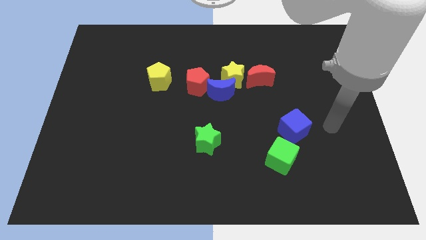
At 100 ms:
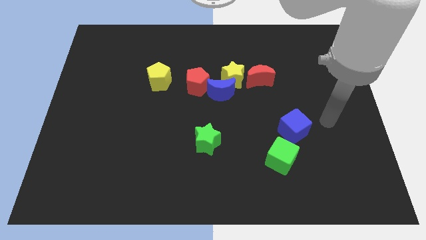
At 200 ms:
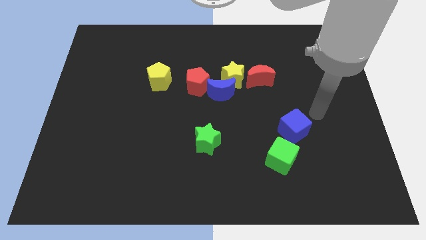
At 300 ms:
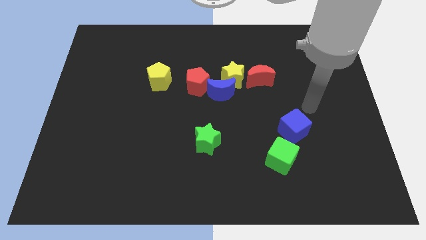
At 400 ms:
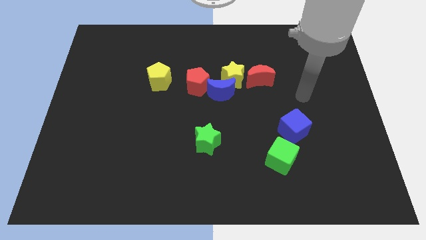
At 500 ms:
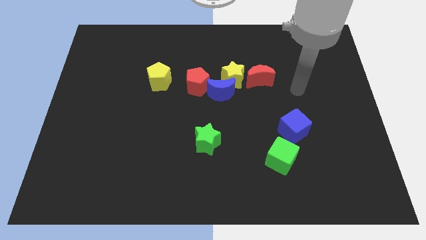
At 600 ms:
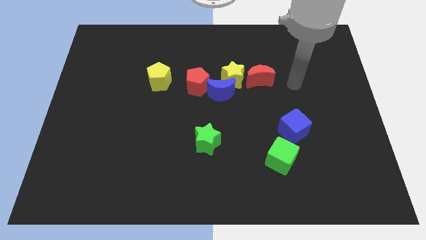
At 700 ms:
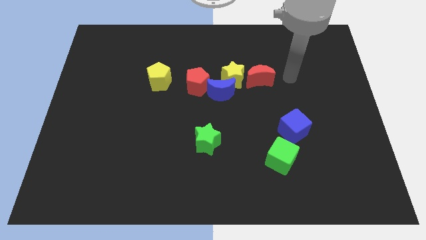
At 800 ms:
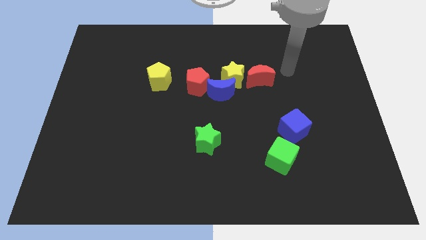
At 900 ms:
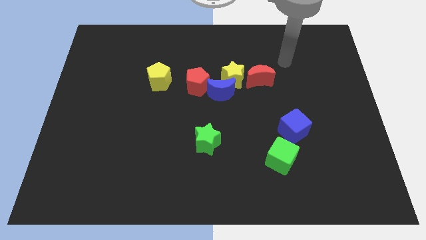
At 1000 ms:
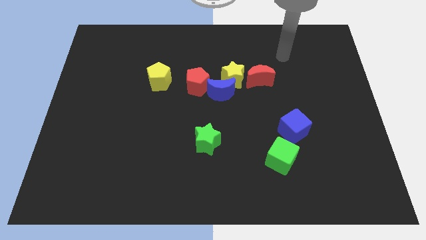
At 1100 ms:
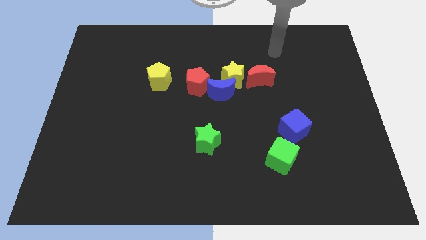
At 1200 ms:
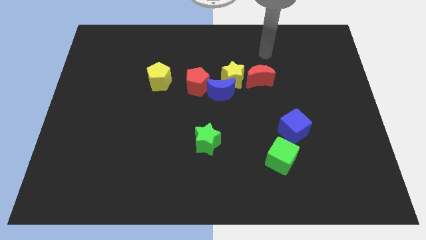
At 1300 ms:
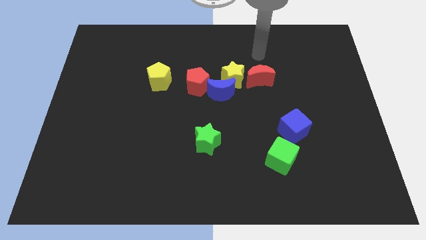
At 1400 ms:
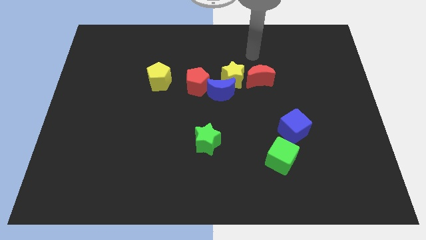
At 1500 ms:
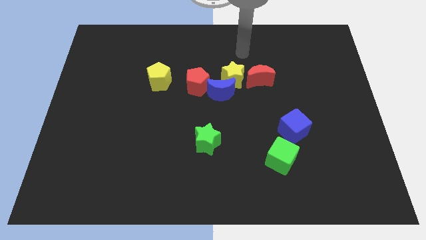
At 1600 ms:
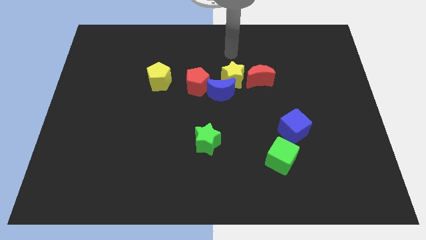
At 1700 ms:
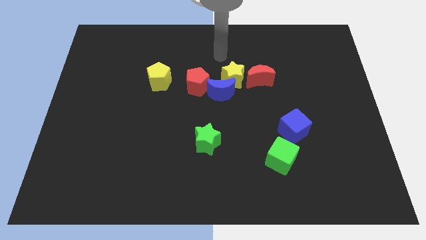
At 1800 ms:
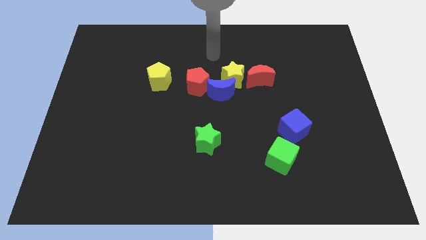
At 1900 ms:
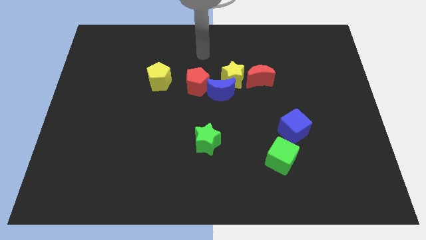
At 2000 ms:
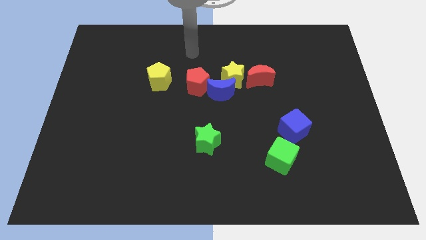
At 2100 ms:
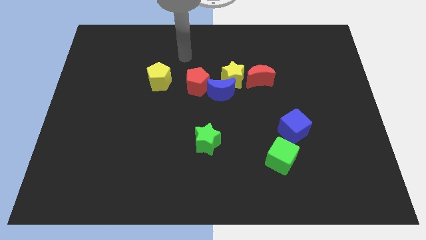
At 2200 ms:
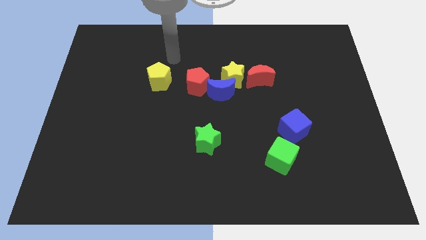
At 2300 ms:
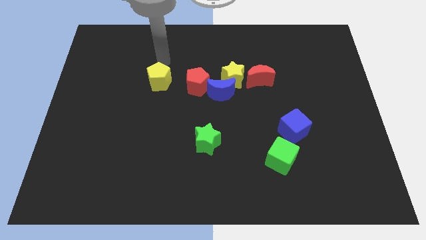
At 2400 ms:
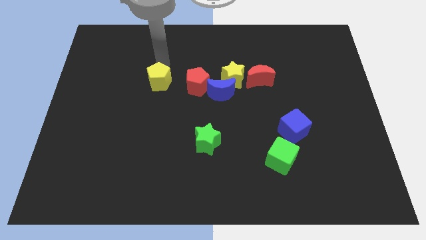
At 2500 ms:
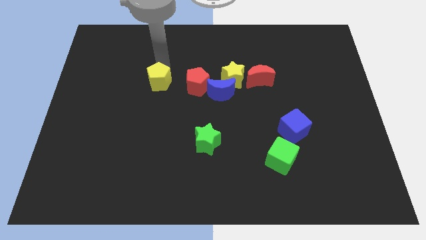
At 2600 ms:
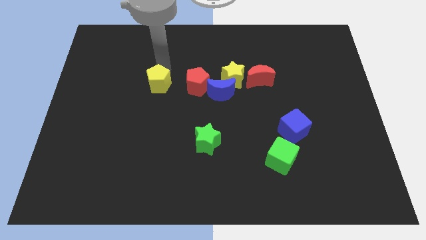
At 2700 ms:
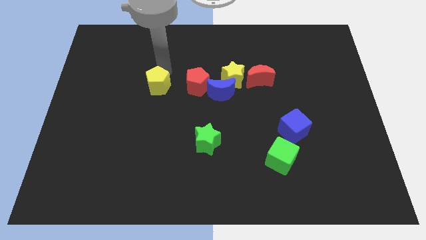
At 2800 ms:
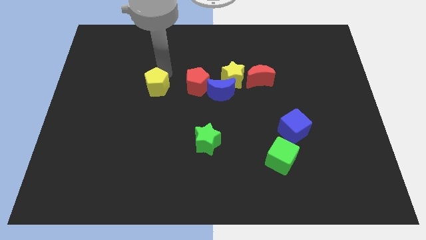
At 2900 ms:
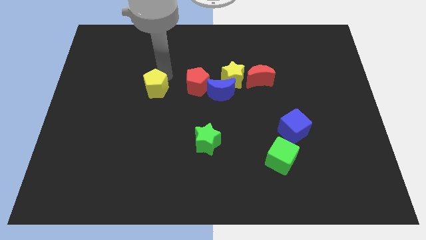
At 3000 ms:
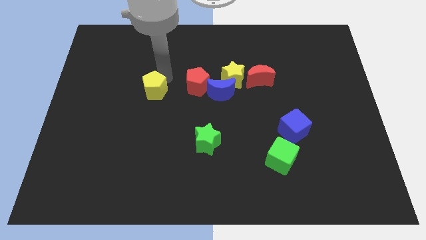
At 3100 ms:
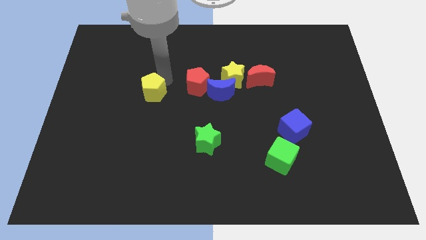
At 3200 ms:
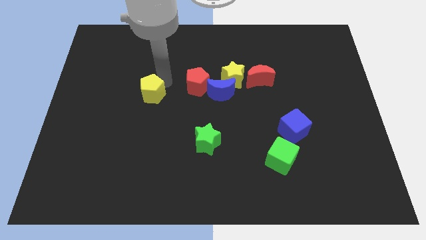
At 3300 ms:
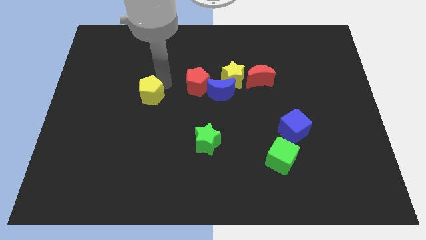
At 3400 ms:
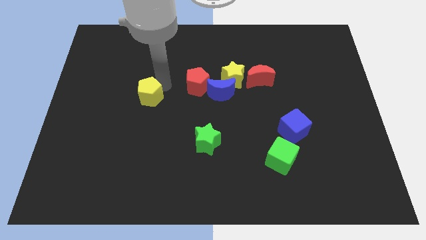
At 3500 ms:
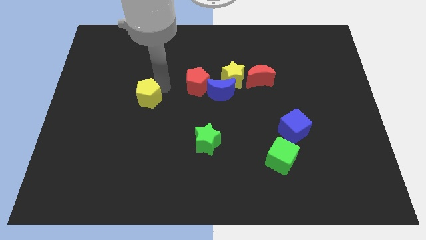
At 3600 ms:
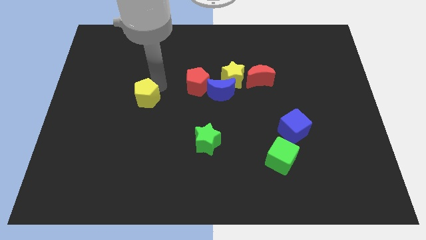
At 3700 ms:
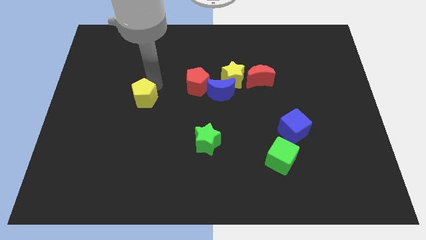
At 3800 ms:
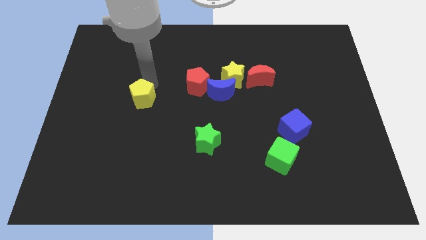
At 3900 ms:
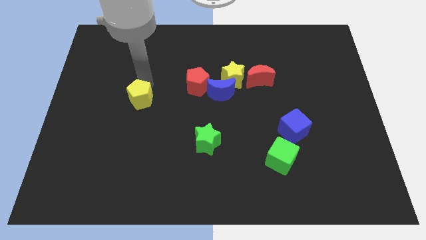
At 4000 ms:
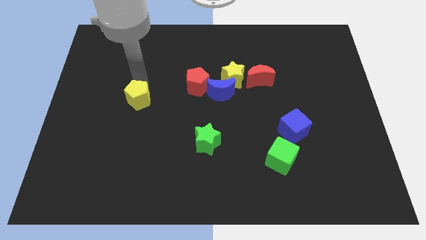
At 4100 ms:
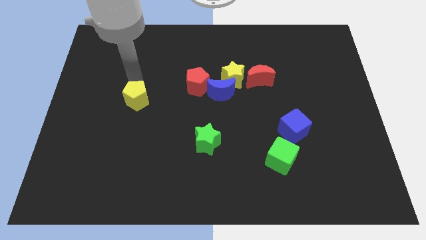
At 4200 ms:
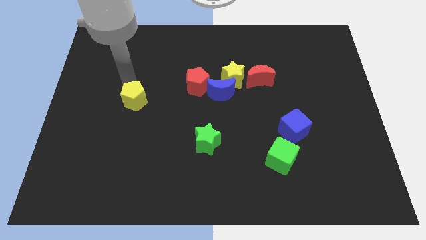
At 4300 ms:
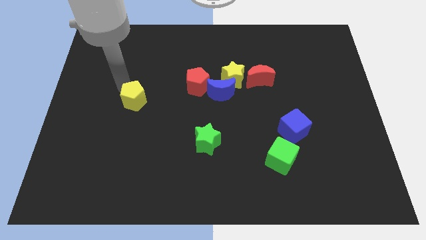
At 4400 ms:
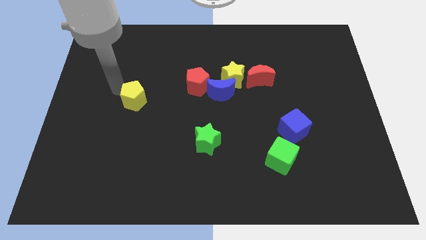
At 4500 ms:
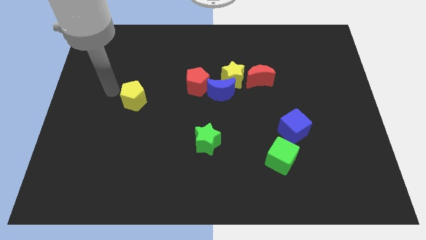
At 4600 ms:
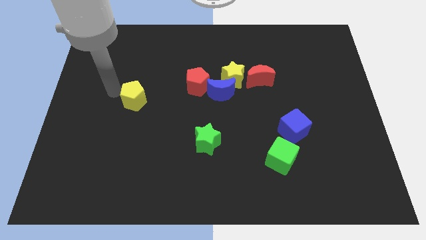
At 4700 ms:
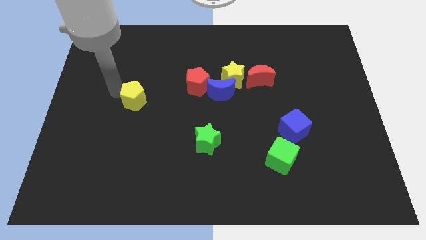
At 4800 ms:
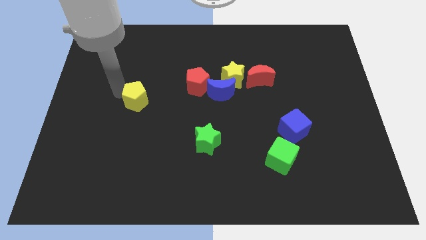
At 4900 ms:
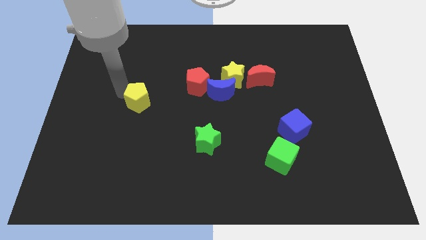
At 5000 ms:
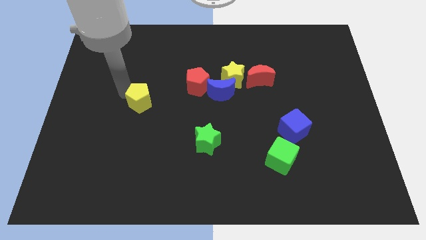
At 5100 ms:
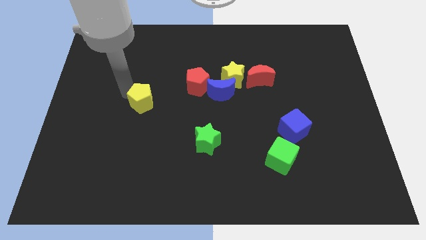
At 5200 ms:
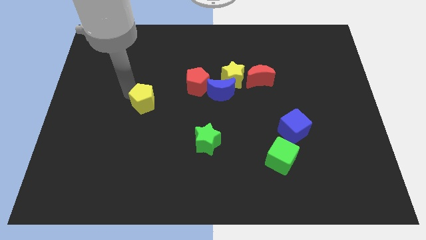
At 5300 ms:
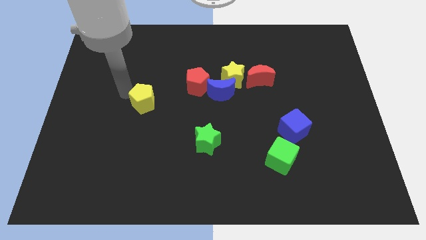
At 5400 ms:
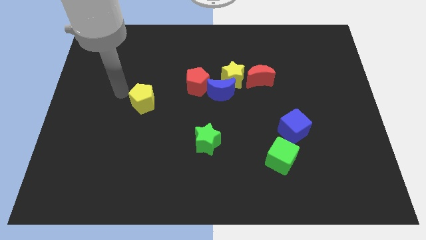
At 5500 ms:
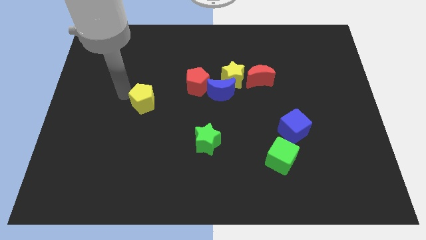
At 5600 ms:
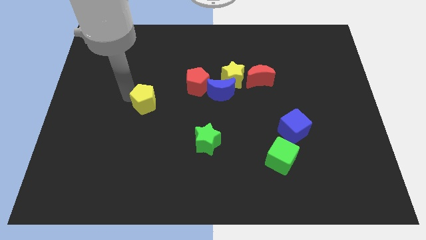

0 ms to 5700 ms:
move the yellow pentagon a bit downwards

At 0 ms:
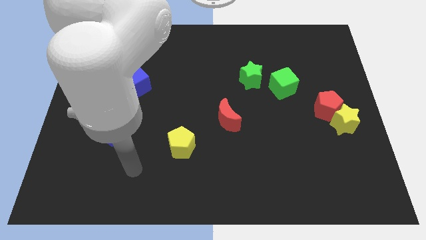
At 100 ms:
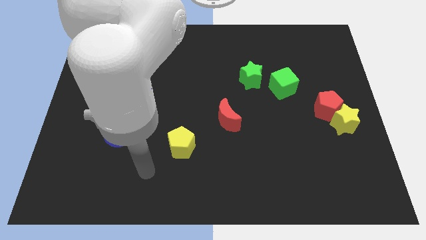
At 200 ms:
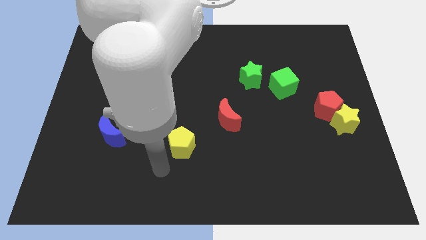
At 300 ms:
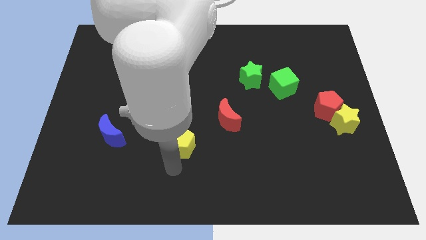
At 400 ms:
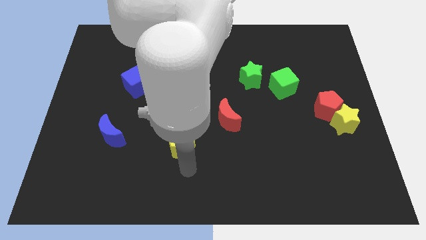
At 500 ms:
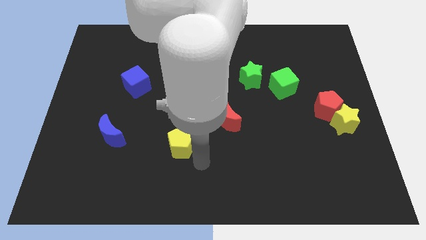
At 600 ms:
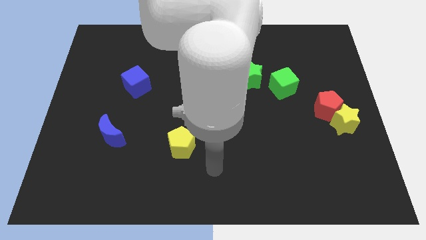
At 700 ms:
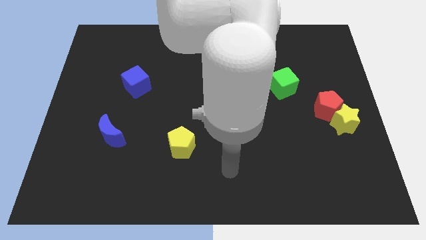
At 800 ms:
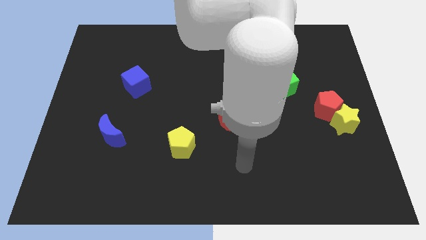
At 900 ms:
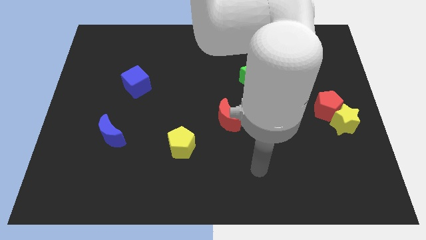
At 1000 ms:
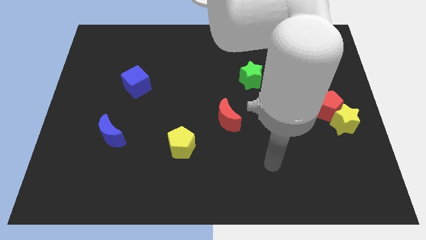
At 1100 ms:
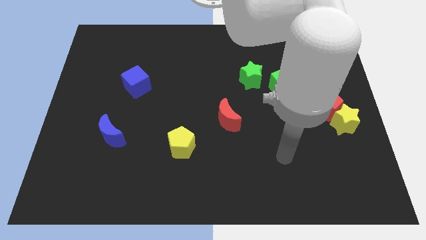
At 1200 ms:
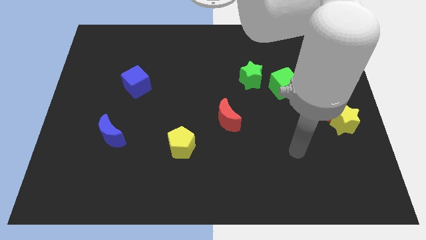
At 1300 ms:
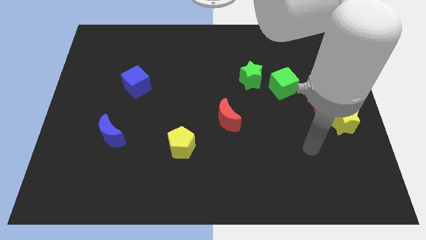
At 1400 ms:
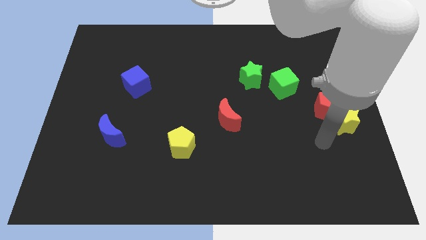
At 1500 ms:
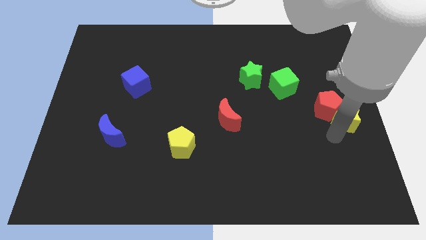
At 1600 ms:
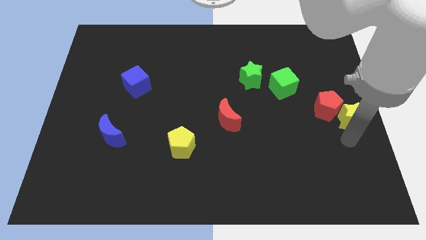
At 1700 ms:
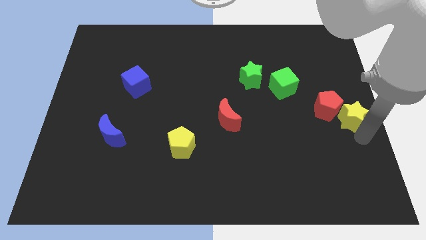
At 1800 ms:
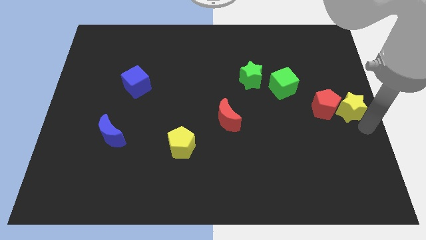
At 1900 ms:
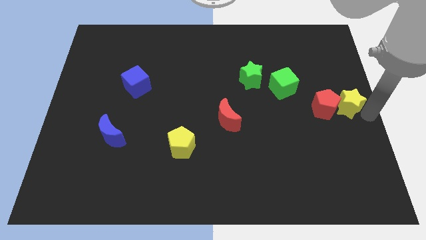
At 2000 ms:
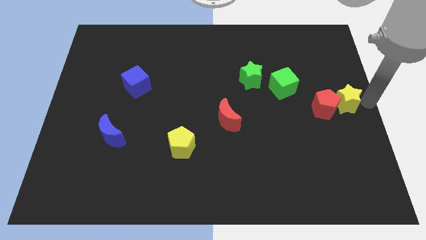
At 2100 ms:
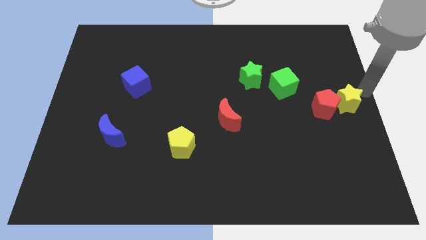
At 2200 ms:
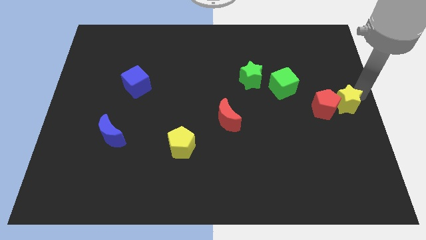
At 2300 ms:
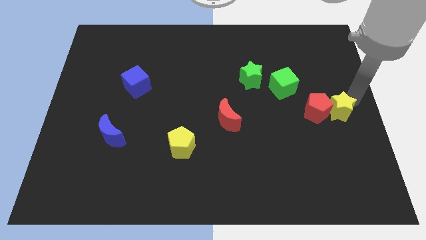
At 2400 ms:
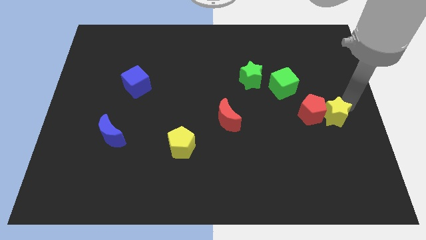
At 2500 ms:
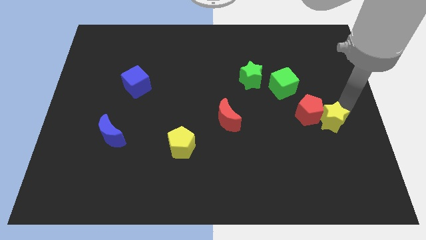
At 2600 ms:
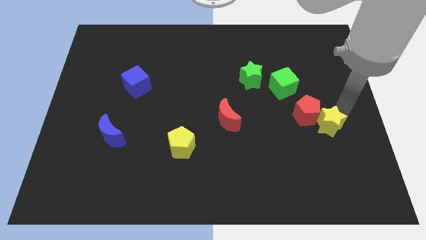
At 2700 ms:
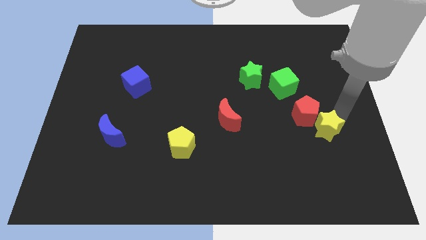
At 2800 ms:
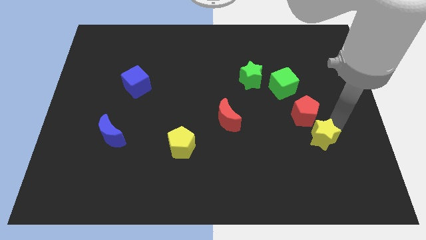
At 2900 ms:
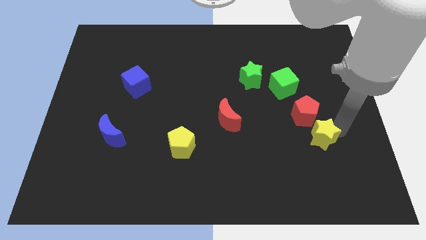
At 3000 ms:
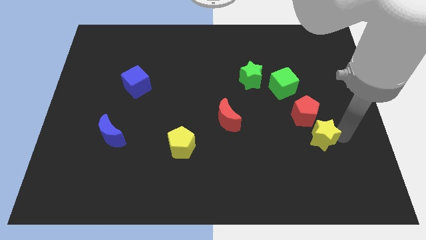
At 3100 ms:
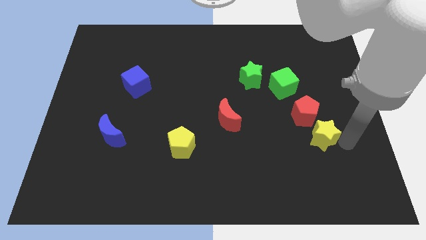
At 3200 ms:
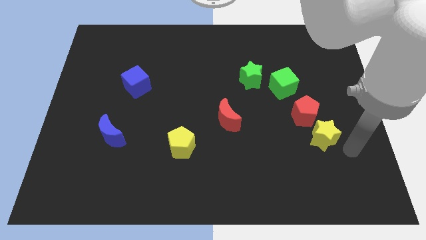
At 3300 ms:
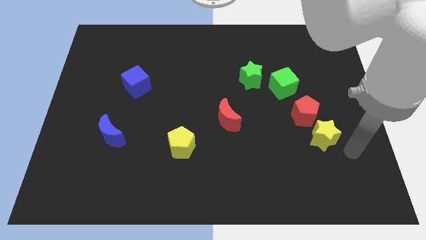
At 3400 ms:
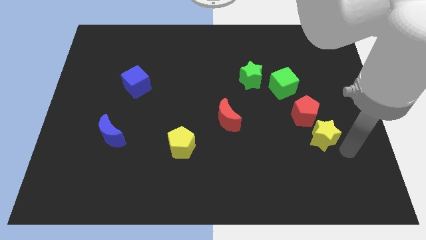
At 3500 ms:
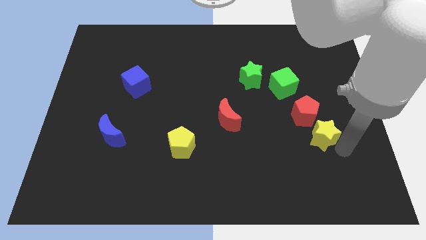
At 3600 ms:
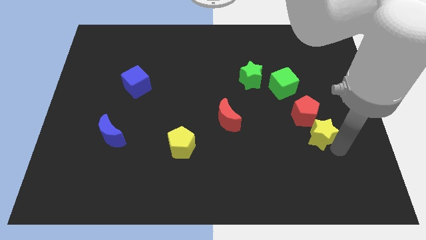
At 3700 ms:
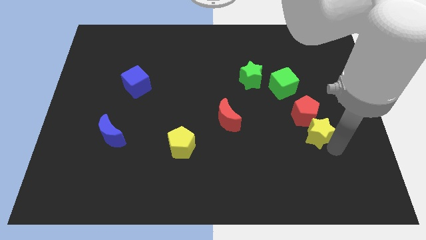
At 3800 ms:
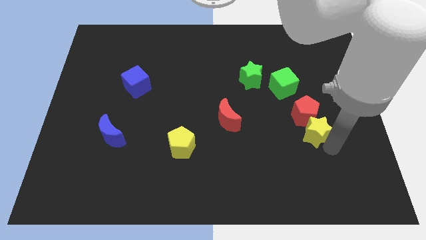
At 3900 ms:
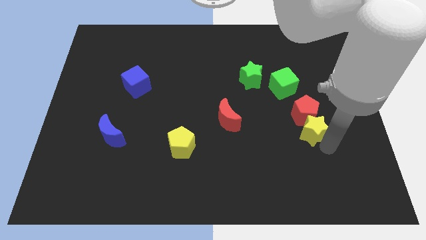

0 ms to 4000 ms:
slide the yellow star left a bit
